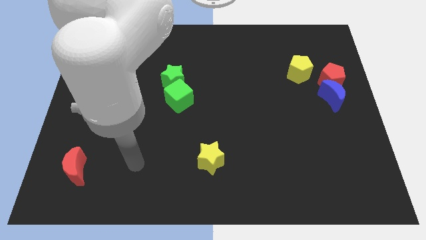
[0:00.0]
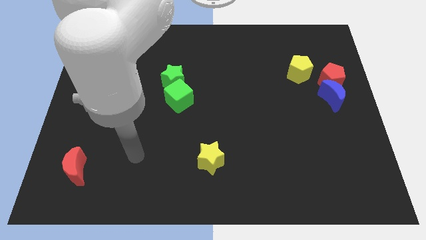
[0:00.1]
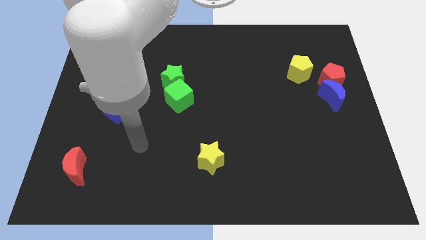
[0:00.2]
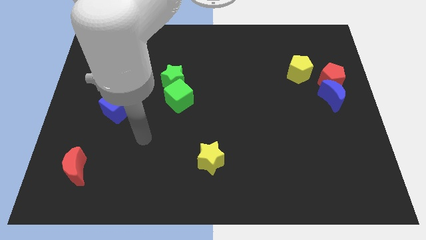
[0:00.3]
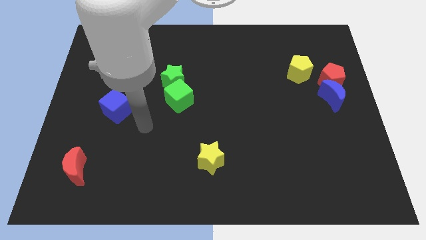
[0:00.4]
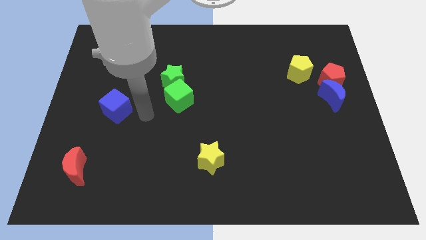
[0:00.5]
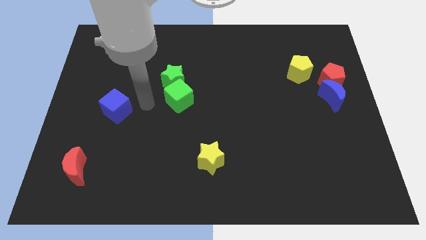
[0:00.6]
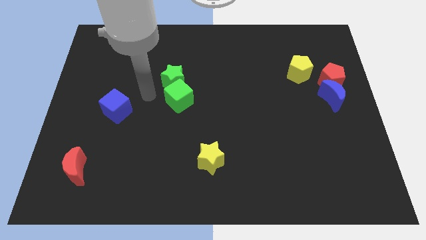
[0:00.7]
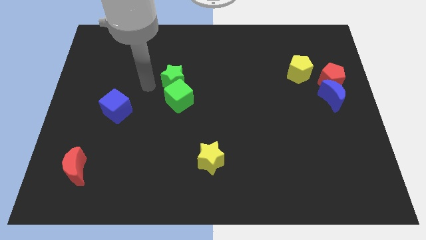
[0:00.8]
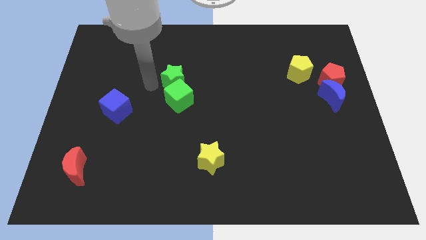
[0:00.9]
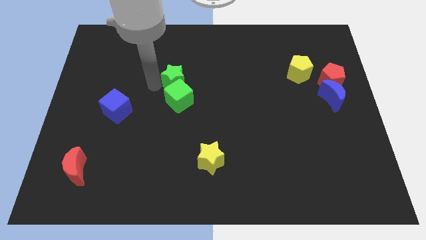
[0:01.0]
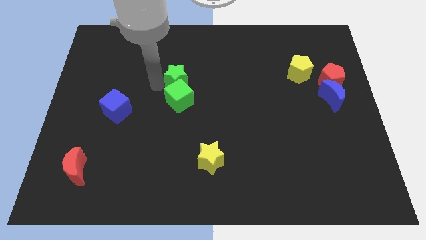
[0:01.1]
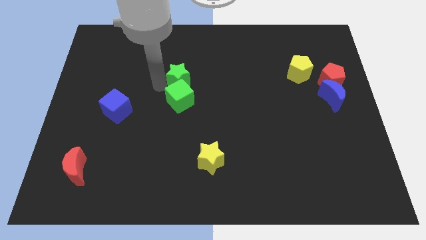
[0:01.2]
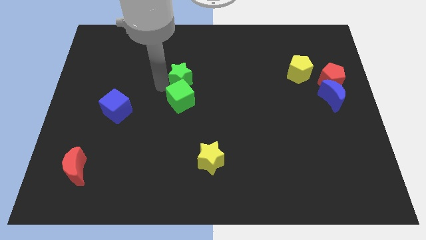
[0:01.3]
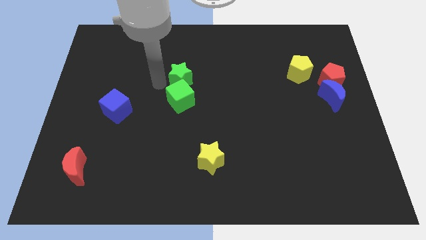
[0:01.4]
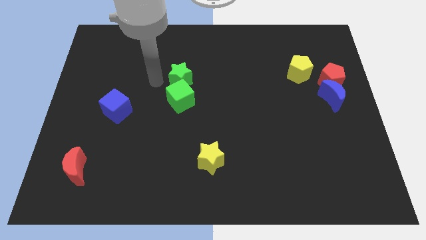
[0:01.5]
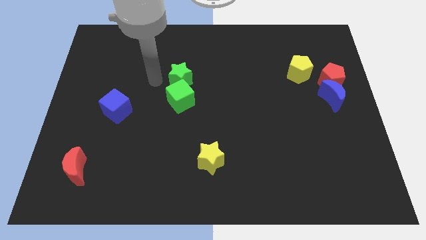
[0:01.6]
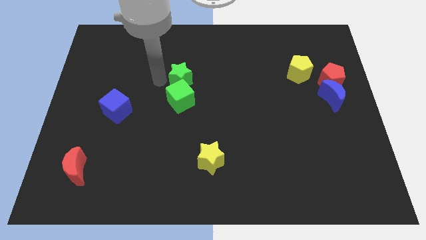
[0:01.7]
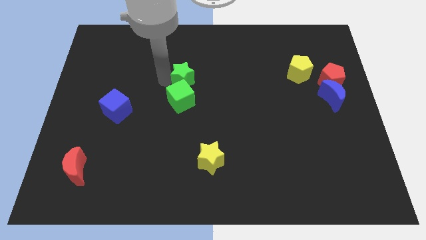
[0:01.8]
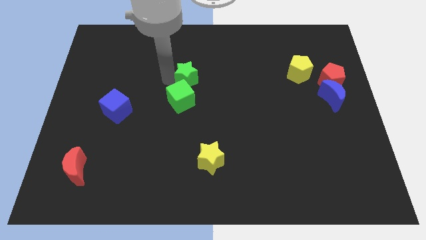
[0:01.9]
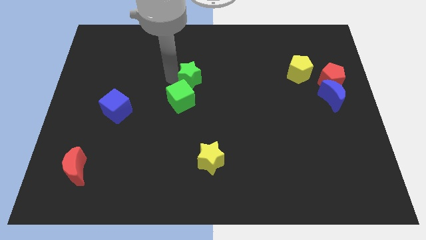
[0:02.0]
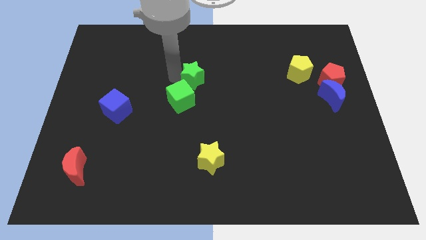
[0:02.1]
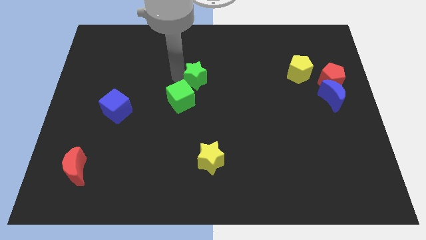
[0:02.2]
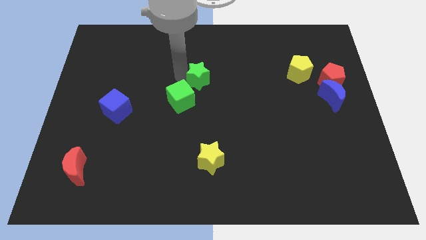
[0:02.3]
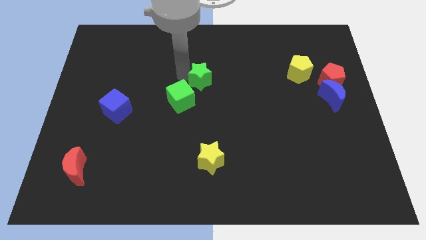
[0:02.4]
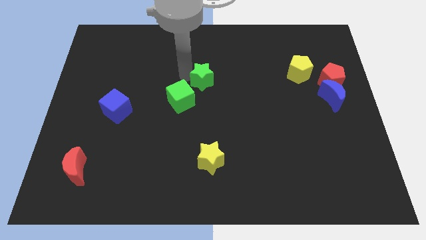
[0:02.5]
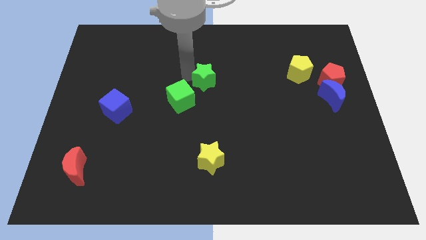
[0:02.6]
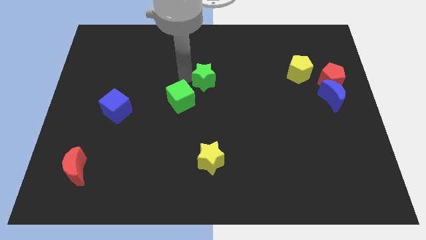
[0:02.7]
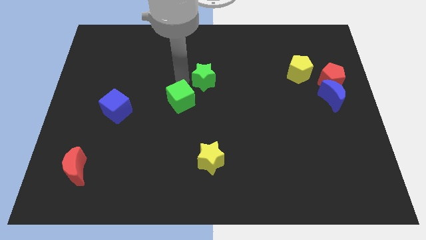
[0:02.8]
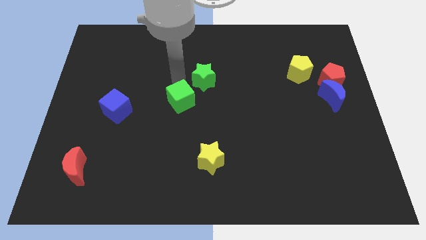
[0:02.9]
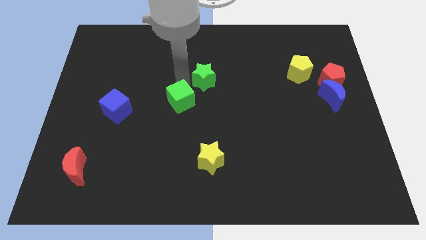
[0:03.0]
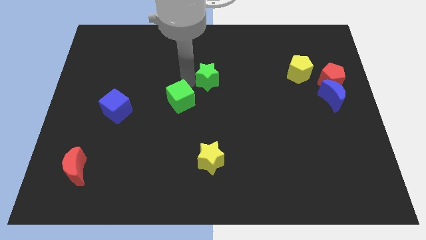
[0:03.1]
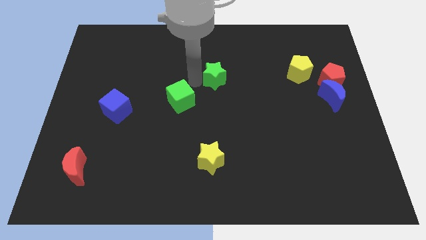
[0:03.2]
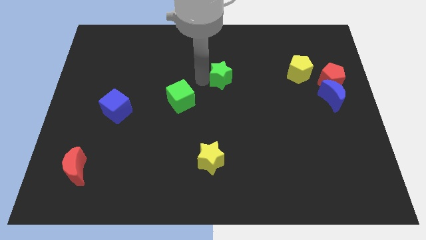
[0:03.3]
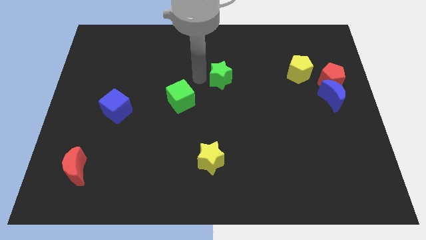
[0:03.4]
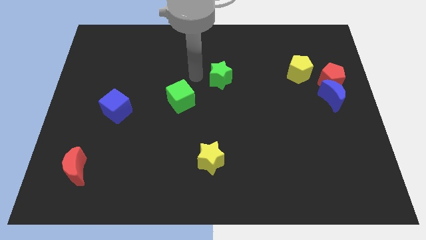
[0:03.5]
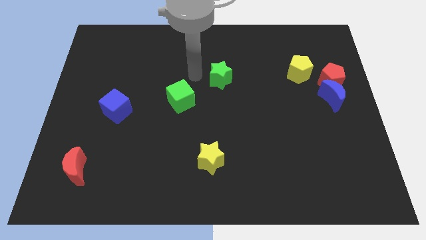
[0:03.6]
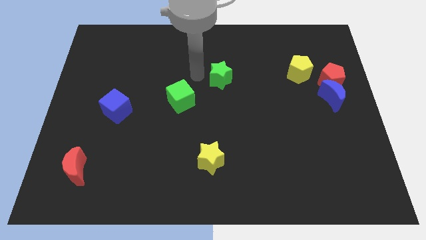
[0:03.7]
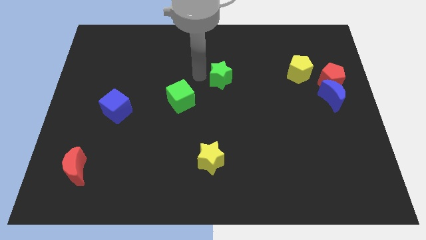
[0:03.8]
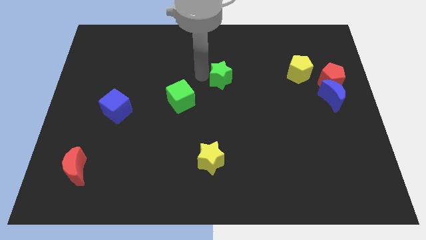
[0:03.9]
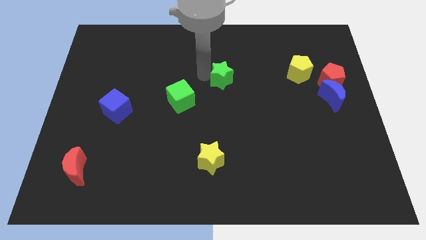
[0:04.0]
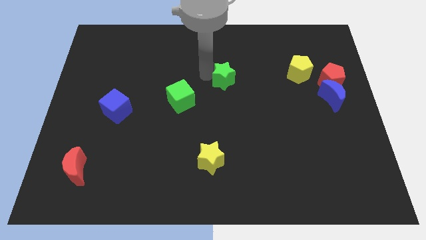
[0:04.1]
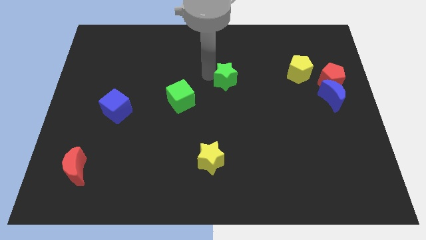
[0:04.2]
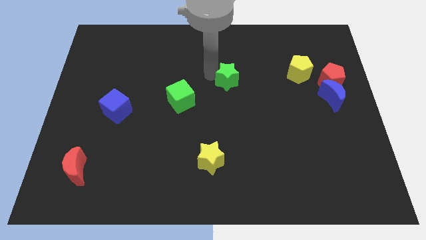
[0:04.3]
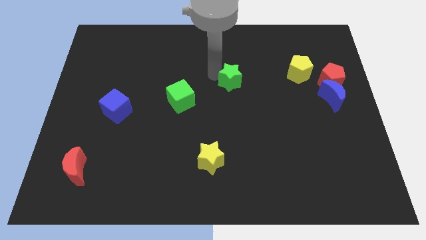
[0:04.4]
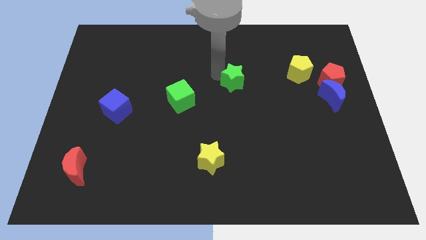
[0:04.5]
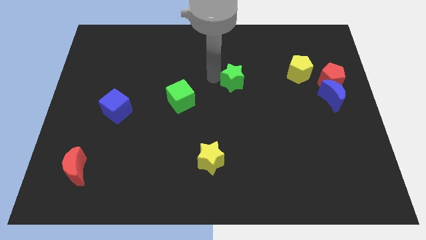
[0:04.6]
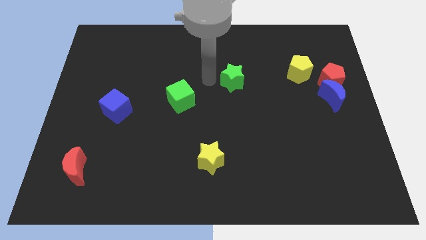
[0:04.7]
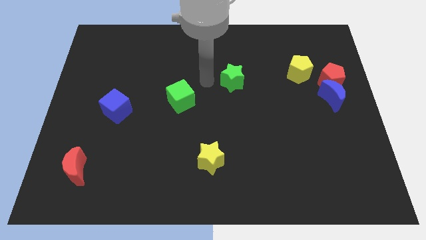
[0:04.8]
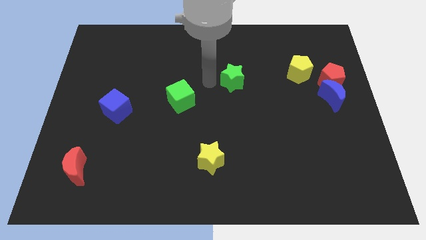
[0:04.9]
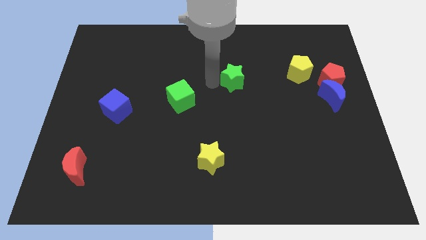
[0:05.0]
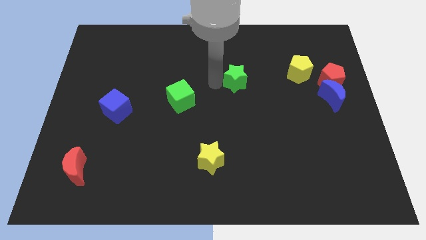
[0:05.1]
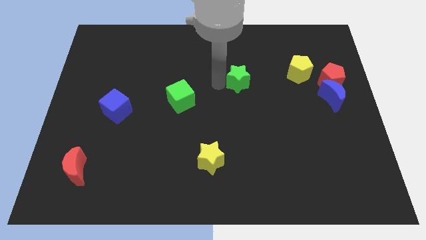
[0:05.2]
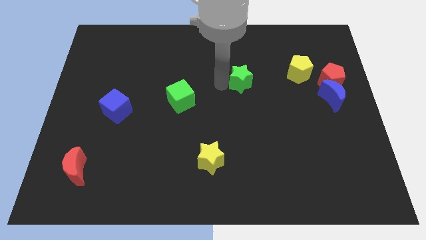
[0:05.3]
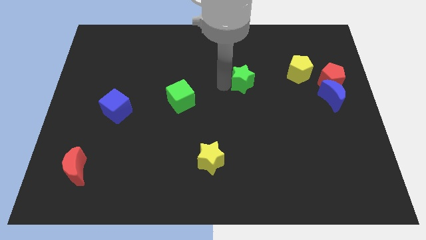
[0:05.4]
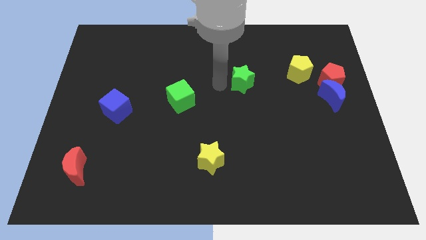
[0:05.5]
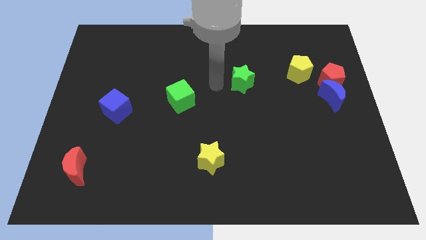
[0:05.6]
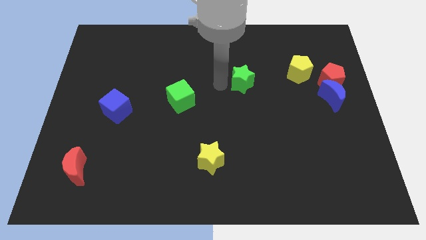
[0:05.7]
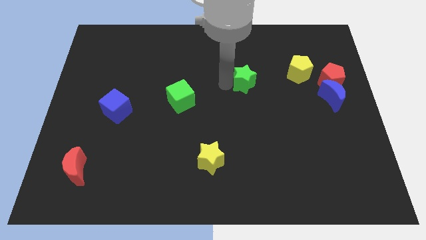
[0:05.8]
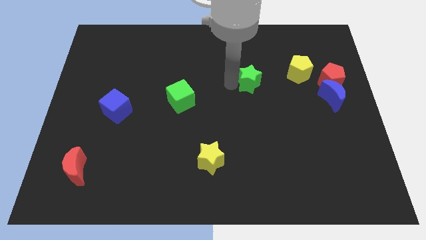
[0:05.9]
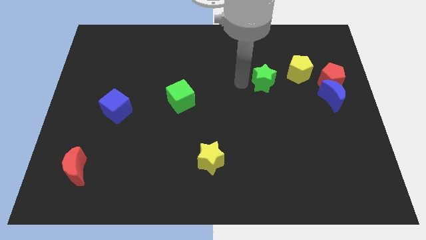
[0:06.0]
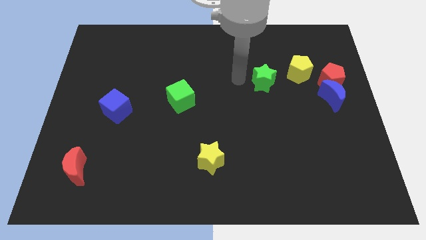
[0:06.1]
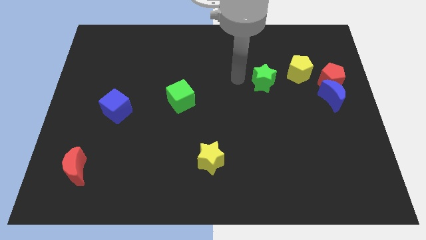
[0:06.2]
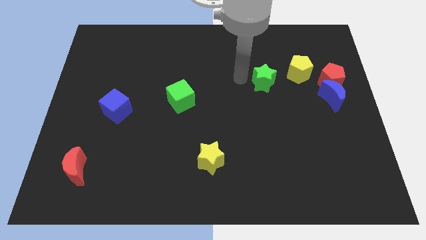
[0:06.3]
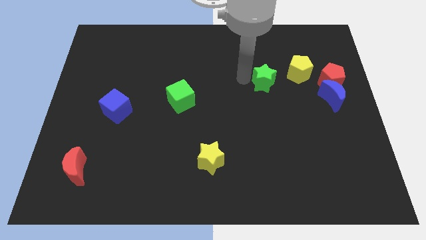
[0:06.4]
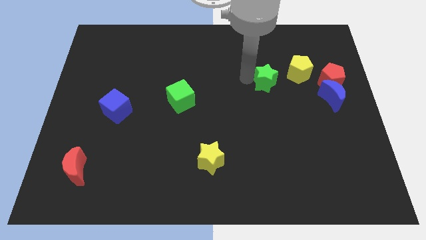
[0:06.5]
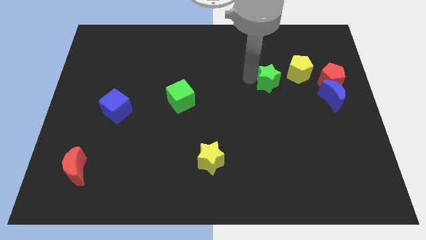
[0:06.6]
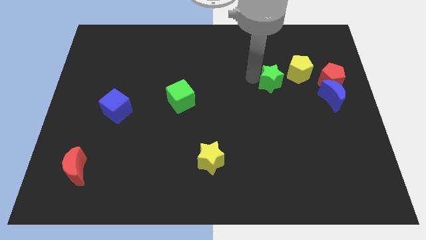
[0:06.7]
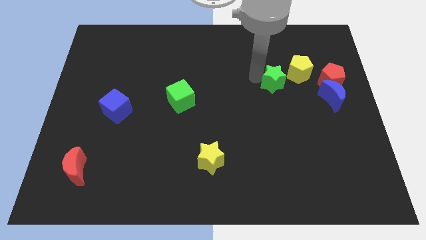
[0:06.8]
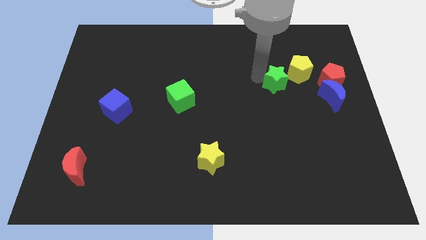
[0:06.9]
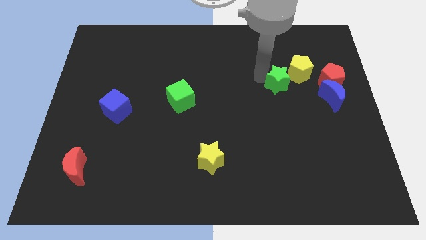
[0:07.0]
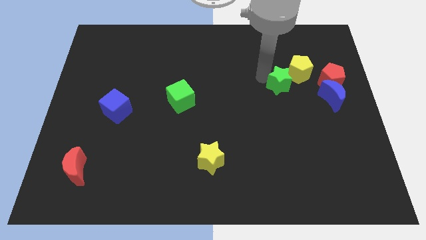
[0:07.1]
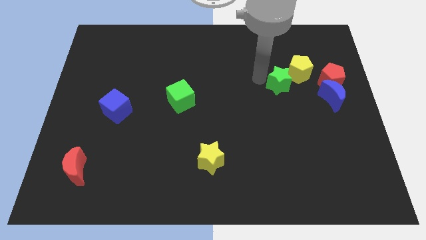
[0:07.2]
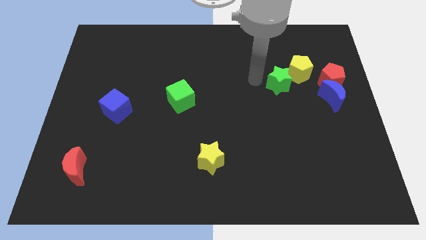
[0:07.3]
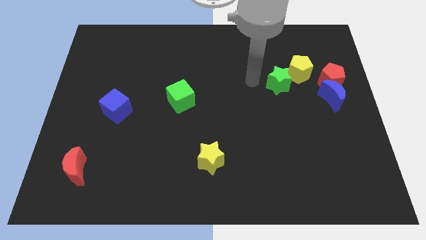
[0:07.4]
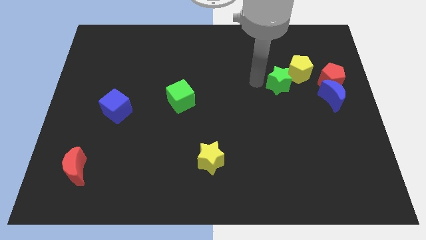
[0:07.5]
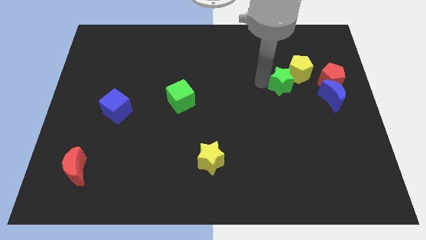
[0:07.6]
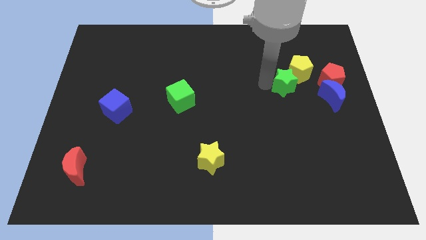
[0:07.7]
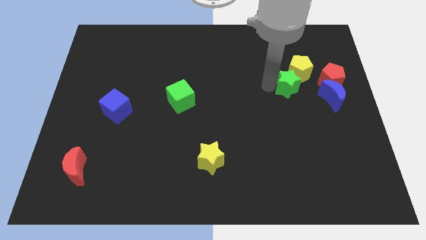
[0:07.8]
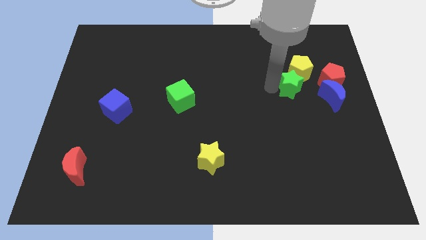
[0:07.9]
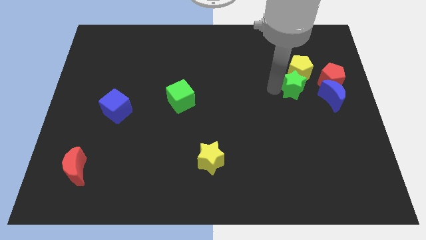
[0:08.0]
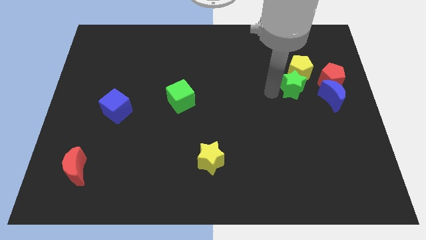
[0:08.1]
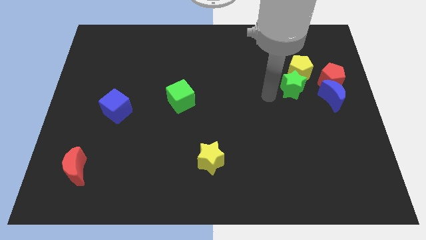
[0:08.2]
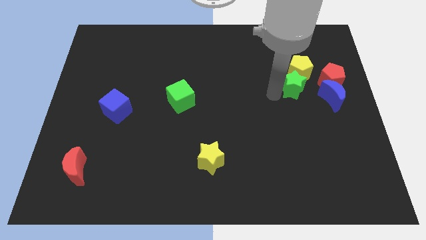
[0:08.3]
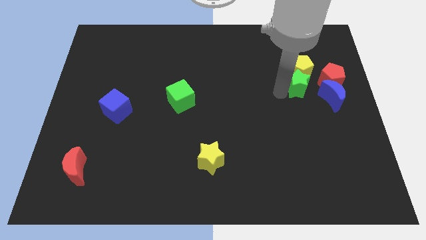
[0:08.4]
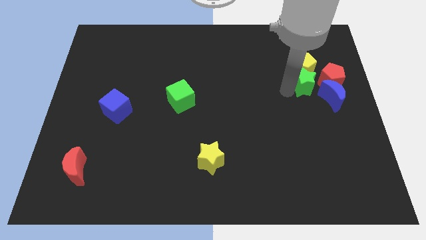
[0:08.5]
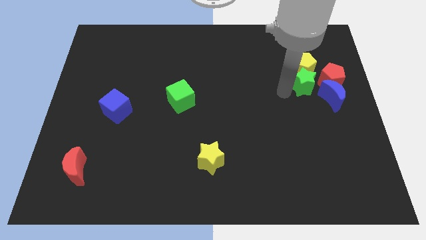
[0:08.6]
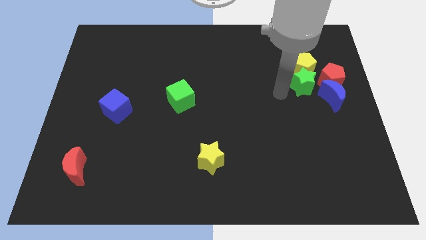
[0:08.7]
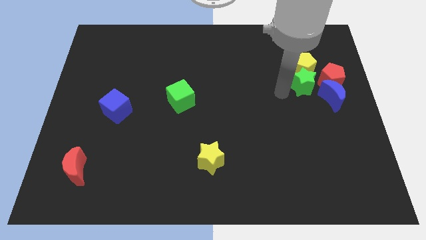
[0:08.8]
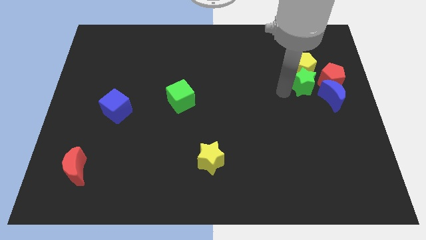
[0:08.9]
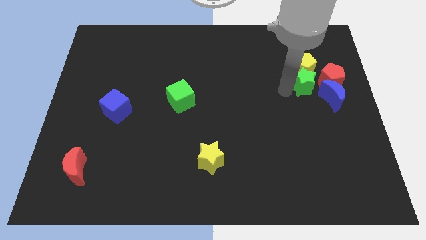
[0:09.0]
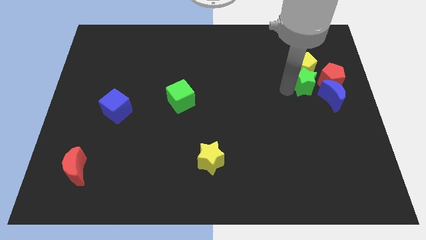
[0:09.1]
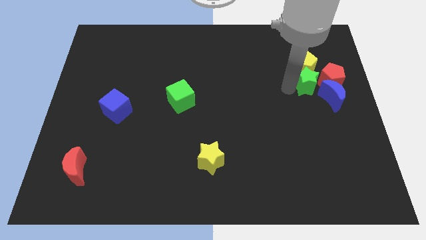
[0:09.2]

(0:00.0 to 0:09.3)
move the green star to the red pentagon
